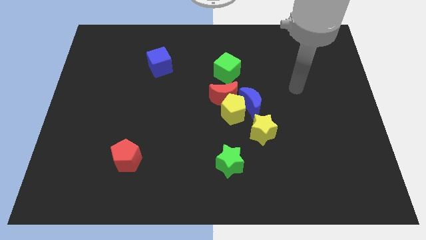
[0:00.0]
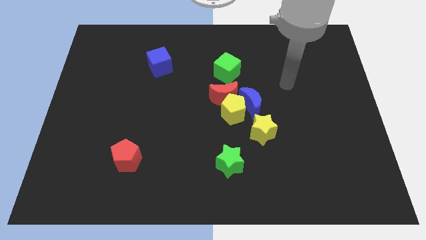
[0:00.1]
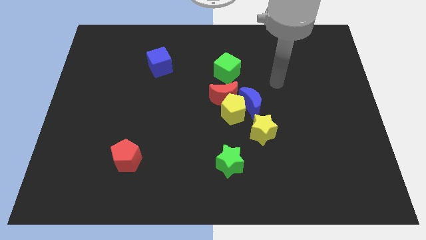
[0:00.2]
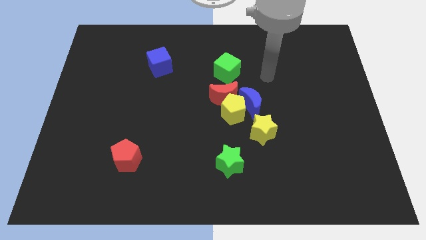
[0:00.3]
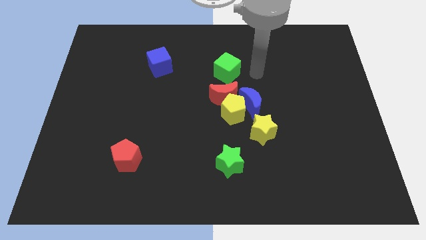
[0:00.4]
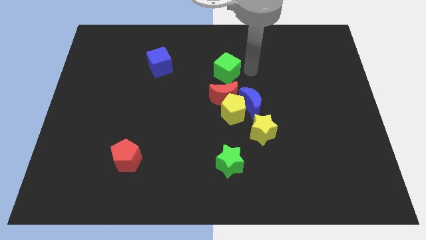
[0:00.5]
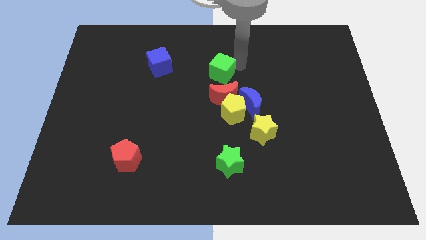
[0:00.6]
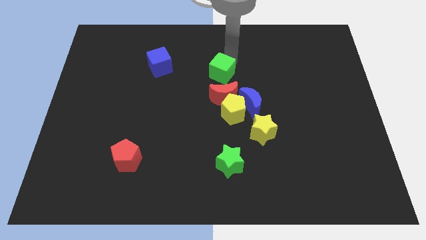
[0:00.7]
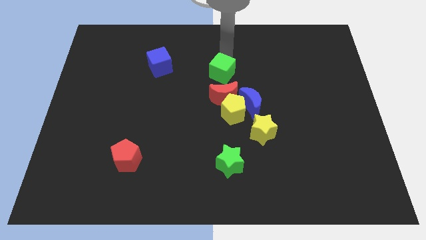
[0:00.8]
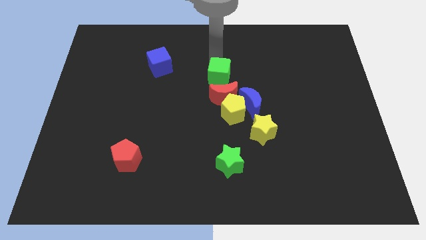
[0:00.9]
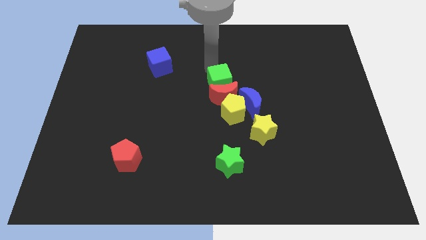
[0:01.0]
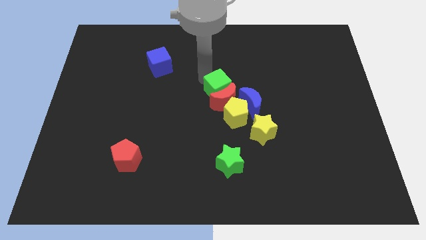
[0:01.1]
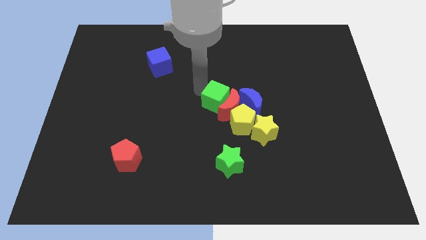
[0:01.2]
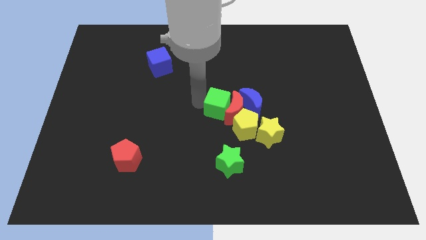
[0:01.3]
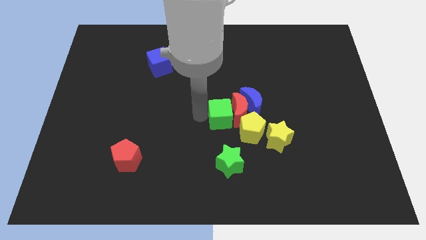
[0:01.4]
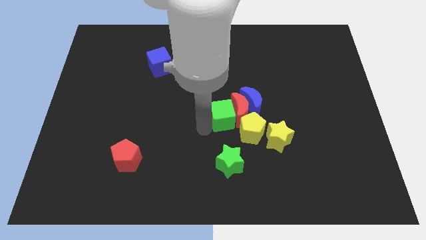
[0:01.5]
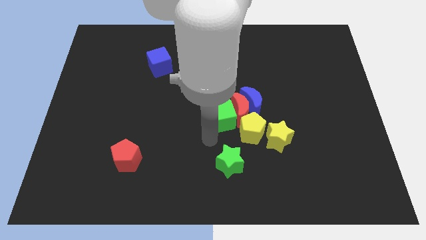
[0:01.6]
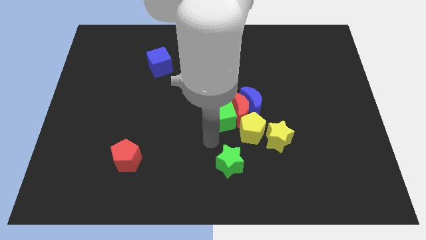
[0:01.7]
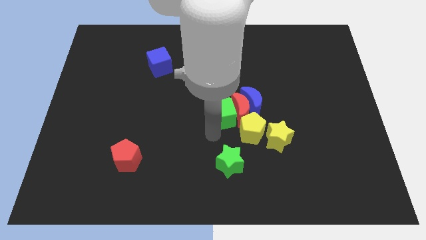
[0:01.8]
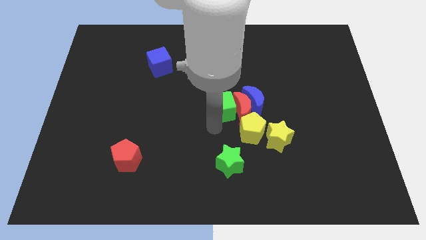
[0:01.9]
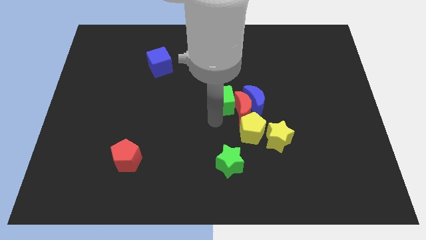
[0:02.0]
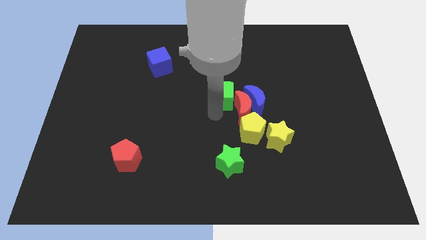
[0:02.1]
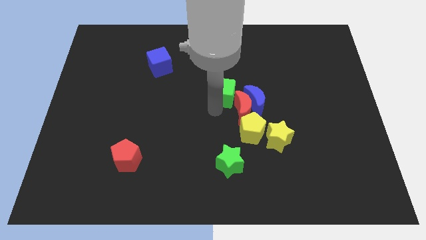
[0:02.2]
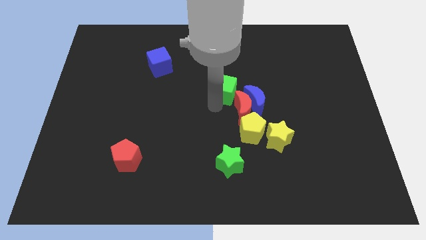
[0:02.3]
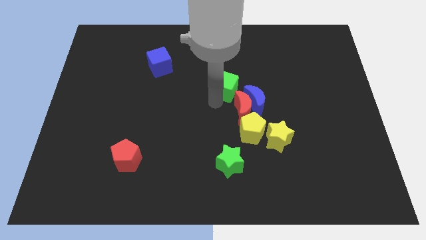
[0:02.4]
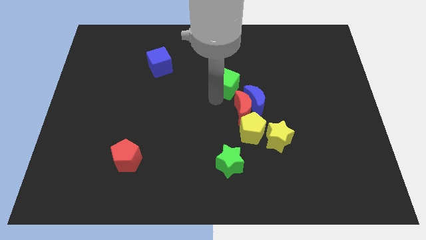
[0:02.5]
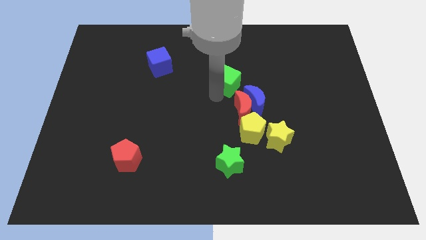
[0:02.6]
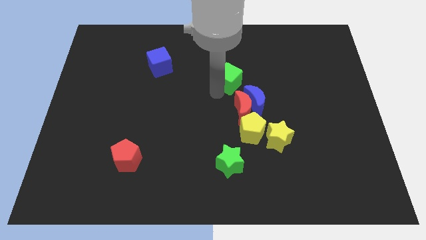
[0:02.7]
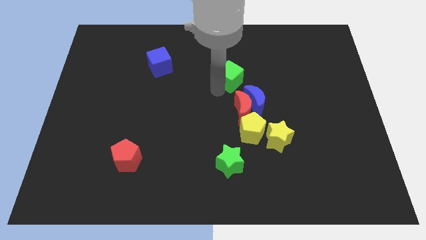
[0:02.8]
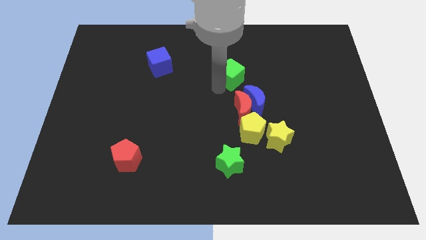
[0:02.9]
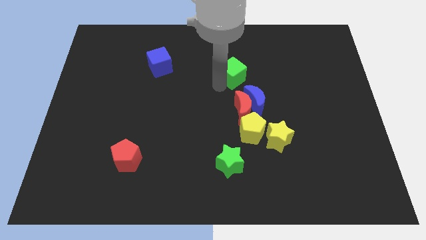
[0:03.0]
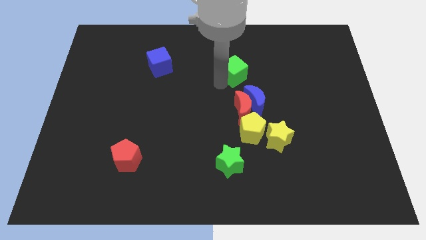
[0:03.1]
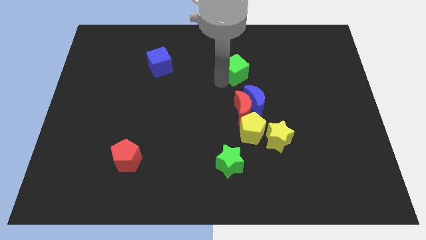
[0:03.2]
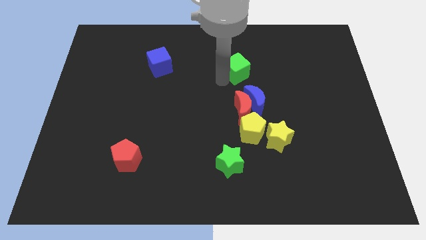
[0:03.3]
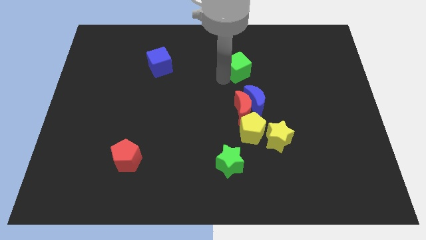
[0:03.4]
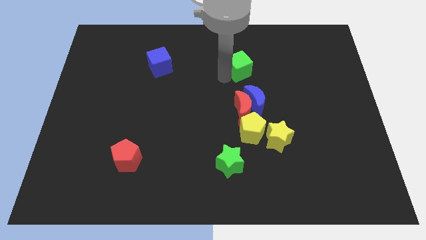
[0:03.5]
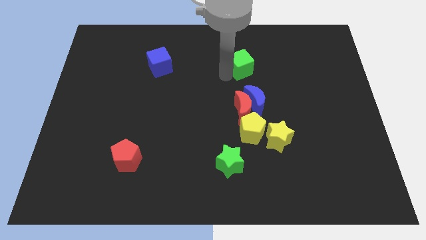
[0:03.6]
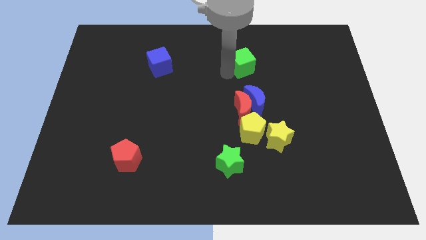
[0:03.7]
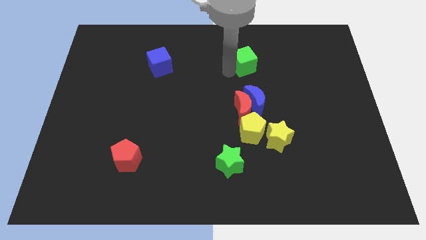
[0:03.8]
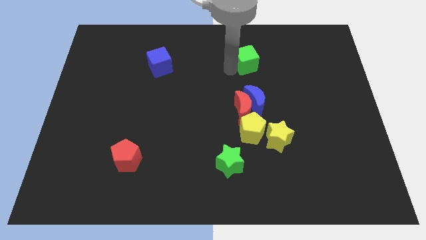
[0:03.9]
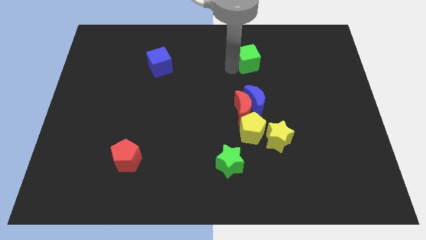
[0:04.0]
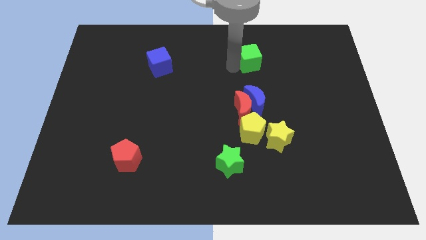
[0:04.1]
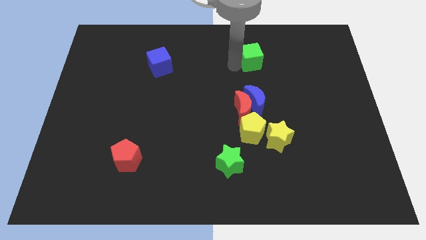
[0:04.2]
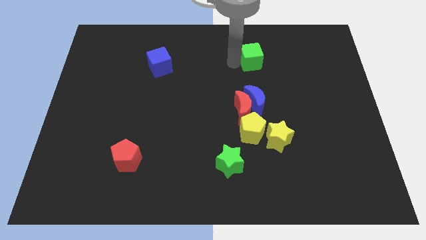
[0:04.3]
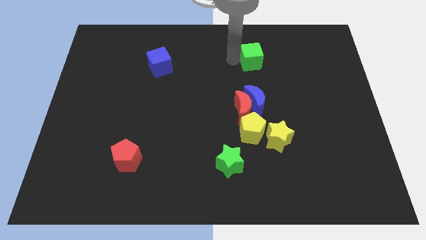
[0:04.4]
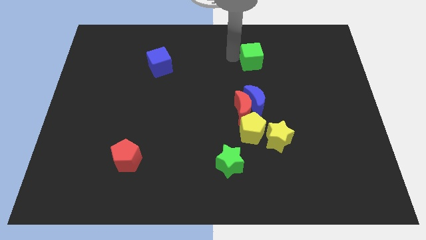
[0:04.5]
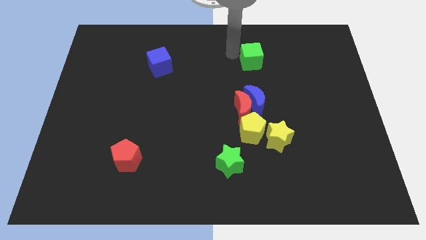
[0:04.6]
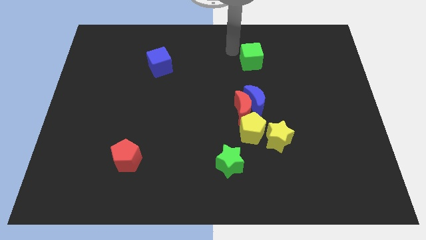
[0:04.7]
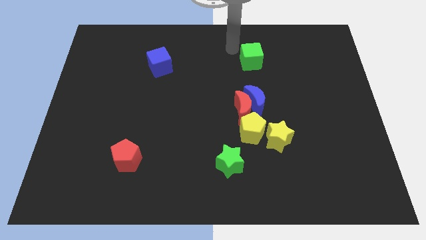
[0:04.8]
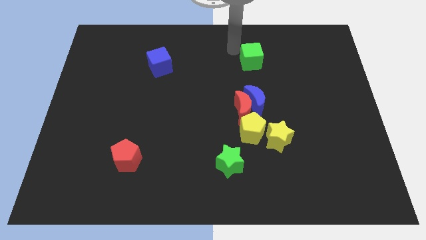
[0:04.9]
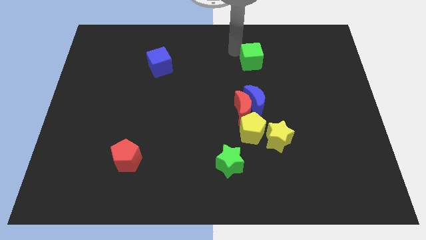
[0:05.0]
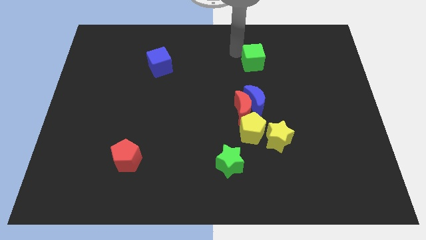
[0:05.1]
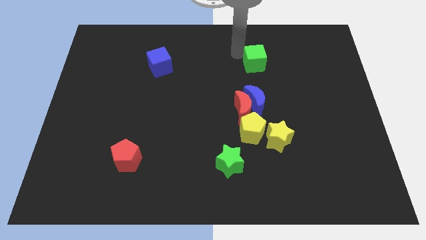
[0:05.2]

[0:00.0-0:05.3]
push the green cube a little bit right

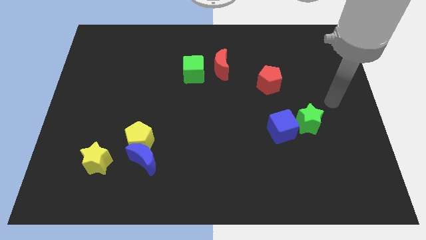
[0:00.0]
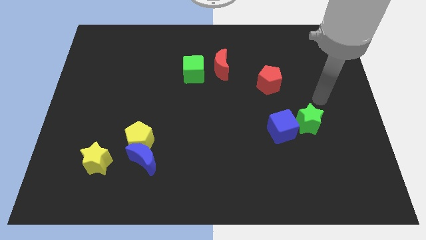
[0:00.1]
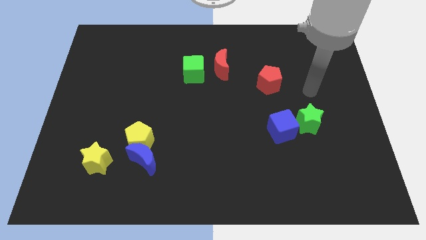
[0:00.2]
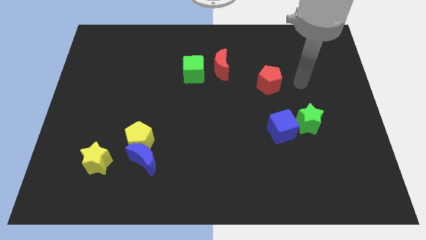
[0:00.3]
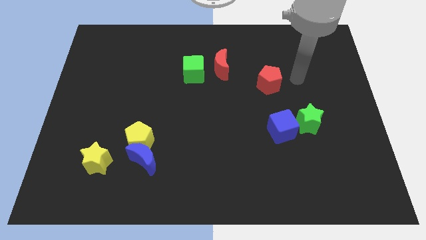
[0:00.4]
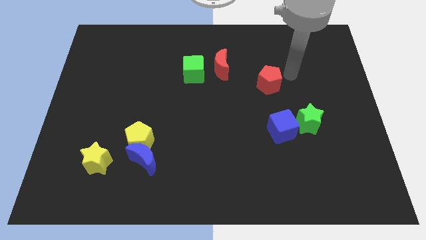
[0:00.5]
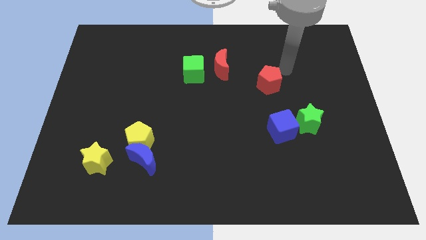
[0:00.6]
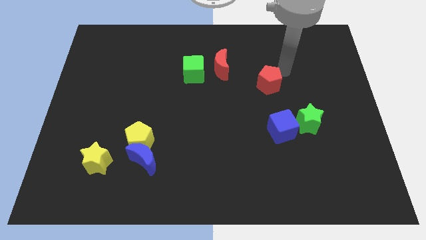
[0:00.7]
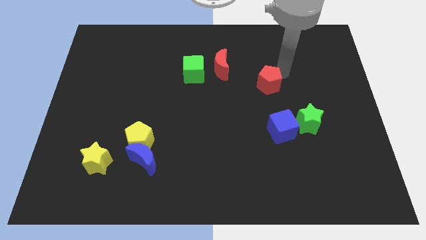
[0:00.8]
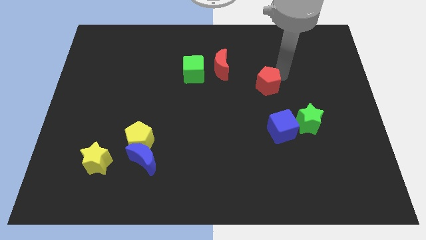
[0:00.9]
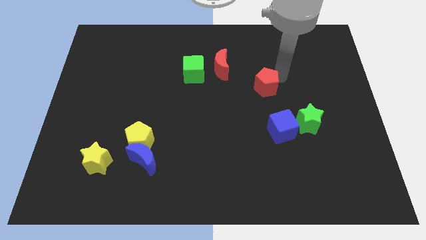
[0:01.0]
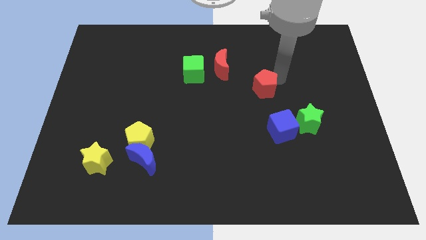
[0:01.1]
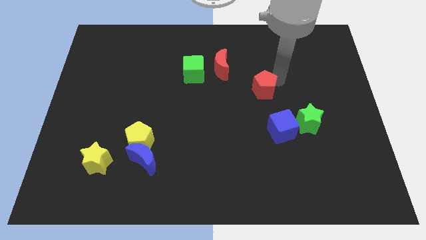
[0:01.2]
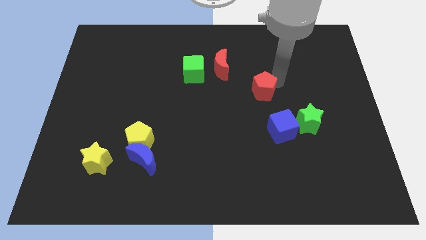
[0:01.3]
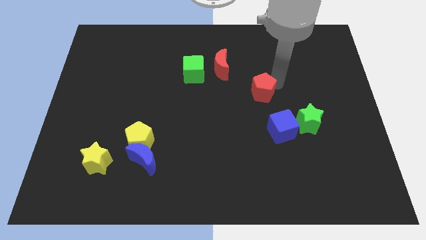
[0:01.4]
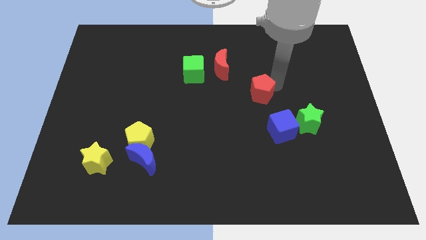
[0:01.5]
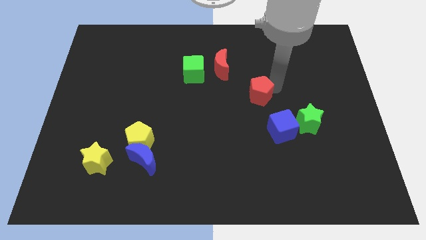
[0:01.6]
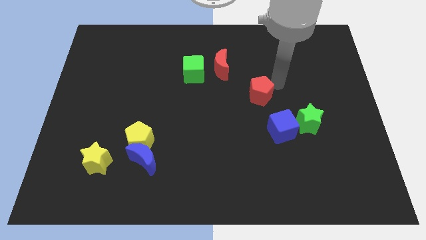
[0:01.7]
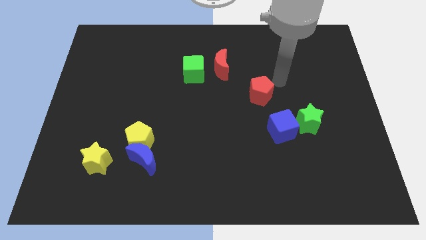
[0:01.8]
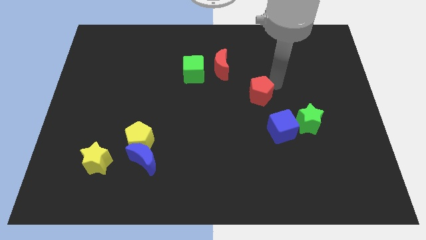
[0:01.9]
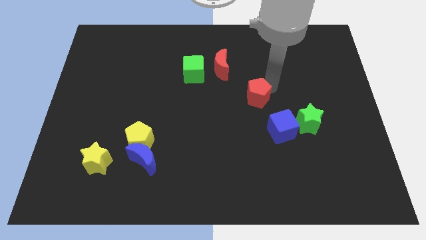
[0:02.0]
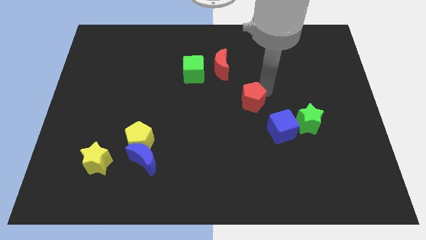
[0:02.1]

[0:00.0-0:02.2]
move the red pentagon down and then left a little bit

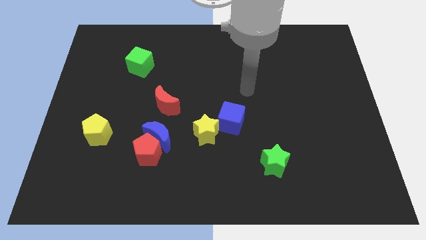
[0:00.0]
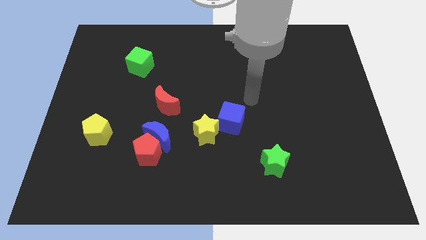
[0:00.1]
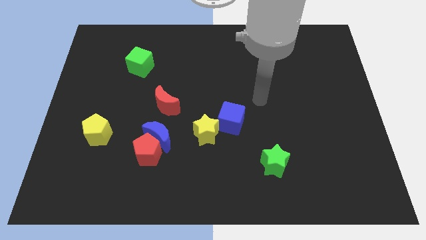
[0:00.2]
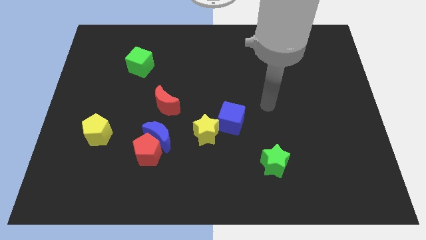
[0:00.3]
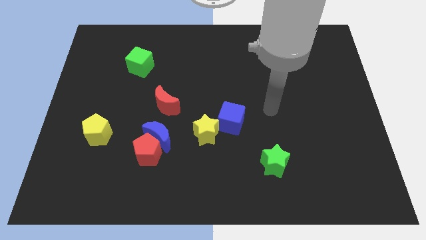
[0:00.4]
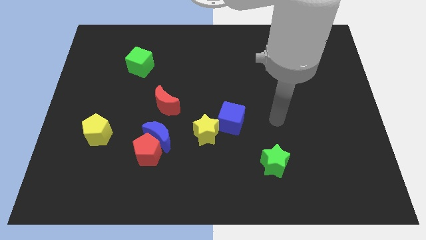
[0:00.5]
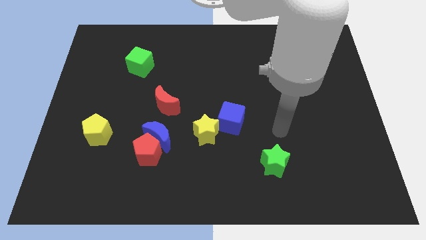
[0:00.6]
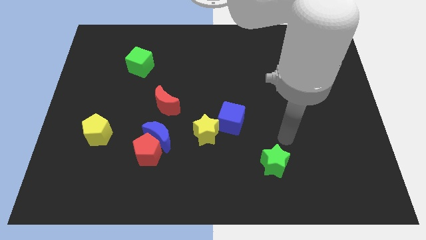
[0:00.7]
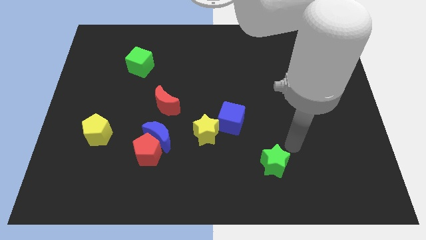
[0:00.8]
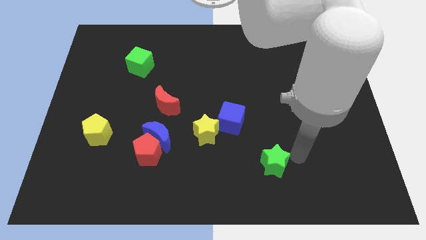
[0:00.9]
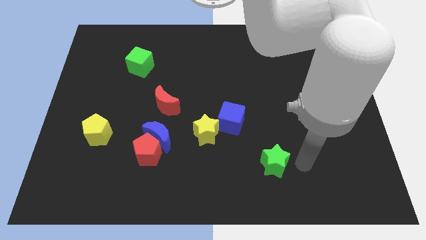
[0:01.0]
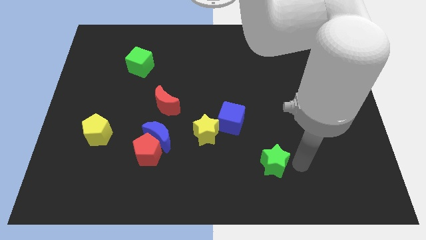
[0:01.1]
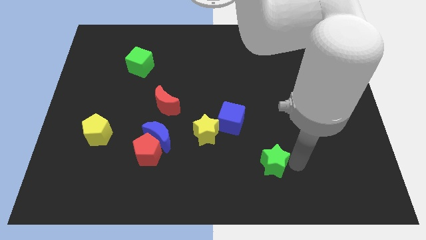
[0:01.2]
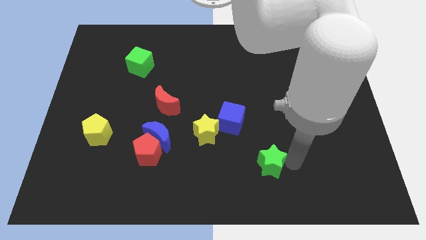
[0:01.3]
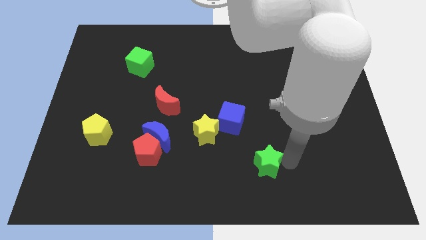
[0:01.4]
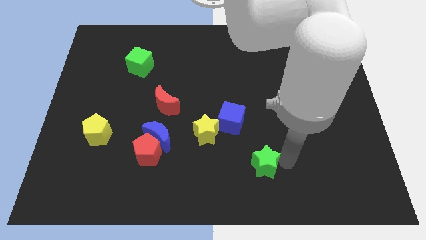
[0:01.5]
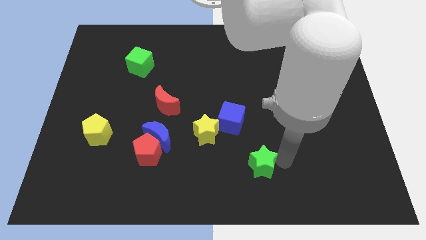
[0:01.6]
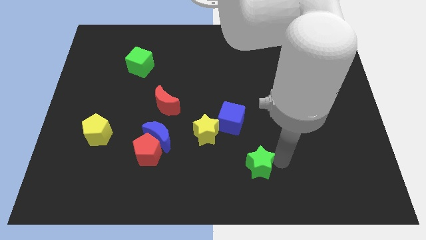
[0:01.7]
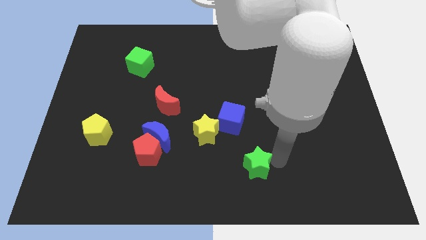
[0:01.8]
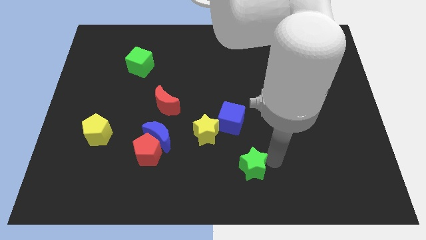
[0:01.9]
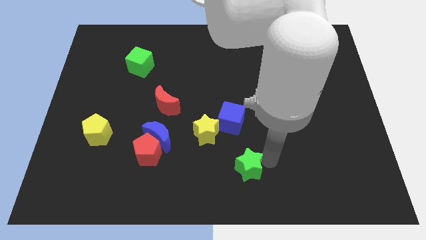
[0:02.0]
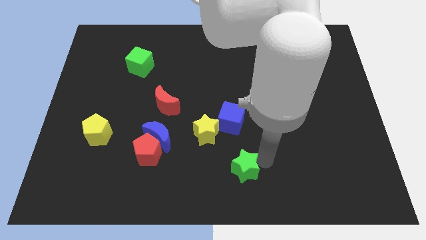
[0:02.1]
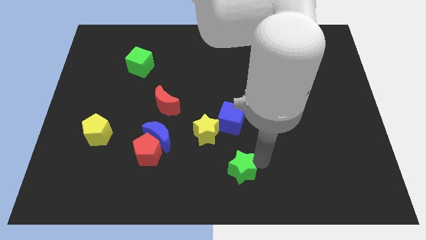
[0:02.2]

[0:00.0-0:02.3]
slide the green star left somewhat
